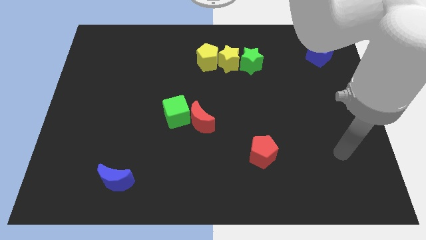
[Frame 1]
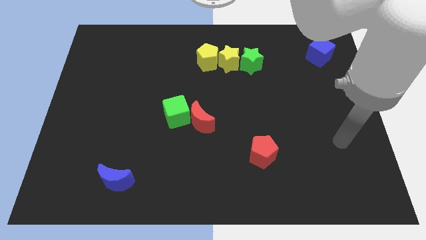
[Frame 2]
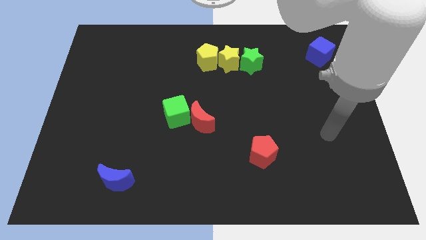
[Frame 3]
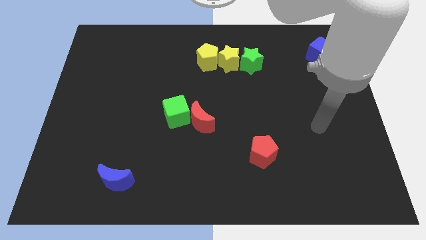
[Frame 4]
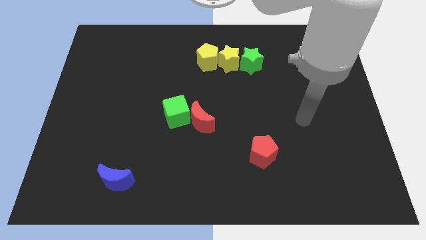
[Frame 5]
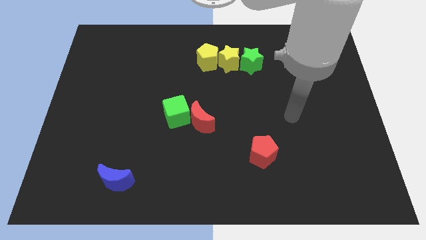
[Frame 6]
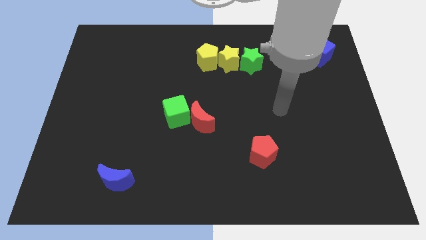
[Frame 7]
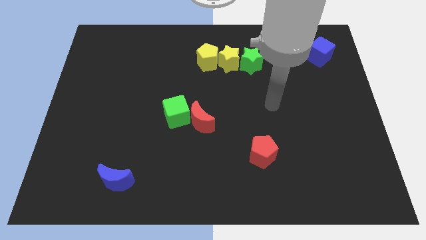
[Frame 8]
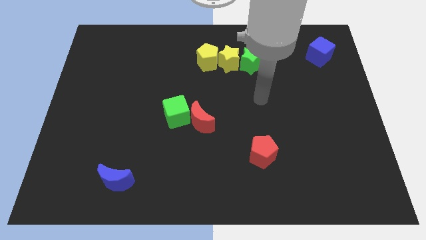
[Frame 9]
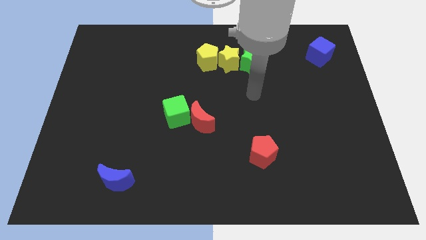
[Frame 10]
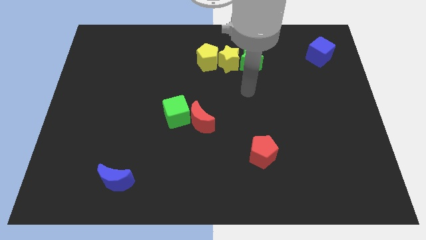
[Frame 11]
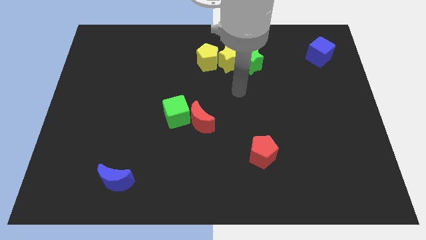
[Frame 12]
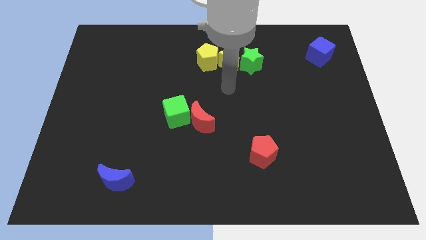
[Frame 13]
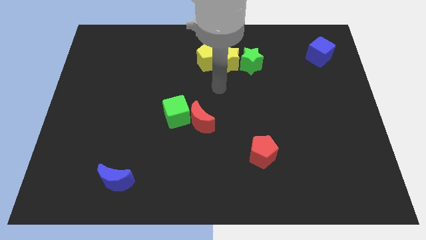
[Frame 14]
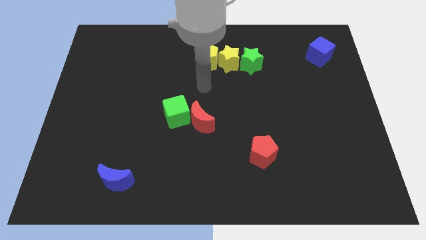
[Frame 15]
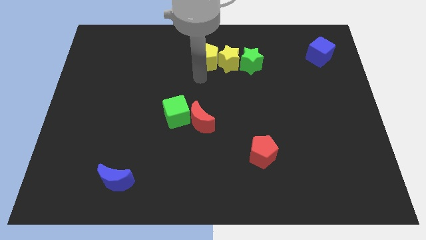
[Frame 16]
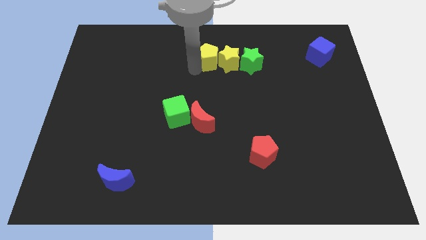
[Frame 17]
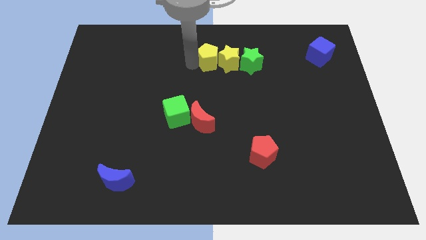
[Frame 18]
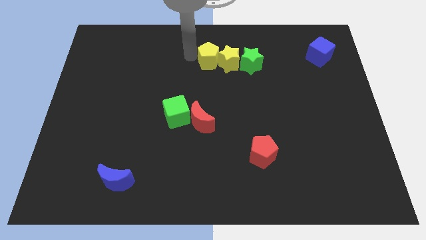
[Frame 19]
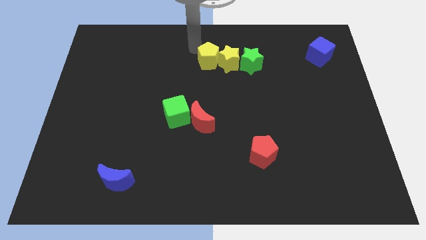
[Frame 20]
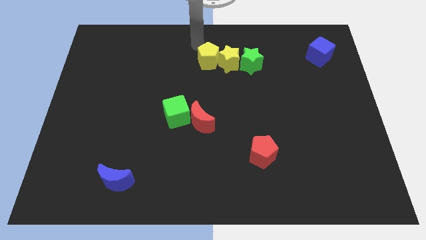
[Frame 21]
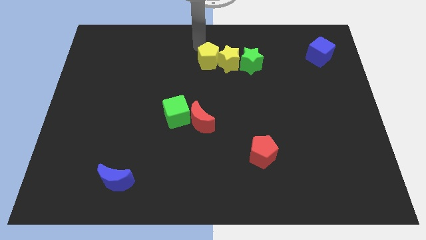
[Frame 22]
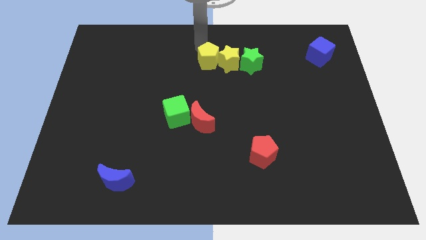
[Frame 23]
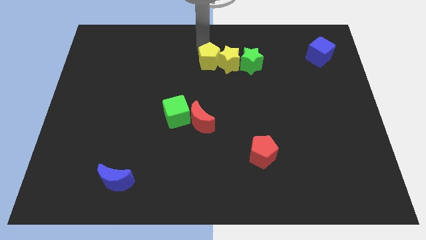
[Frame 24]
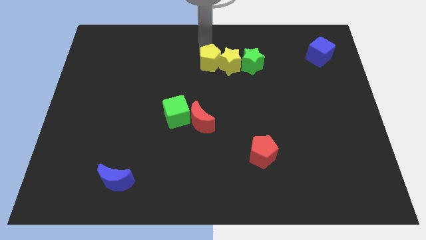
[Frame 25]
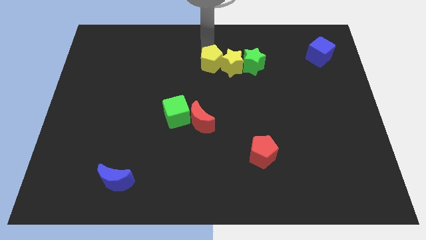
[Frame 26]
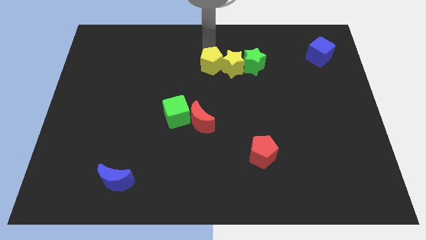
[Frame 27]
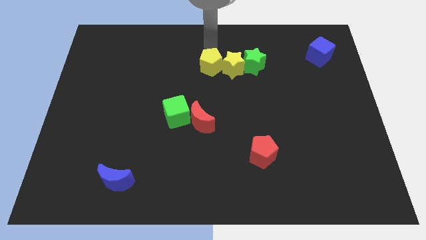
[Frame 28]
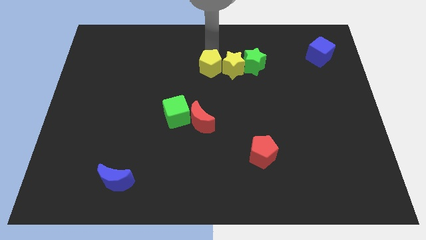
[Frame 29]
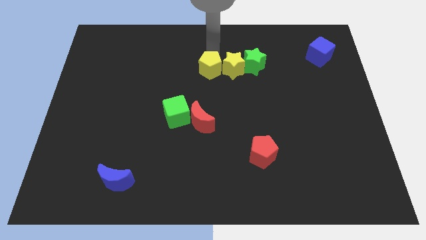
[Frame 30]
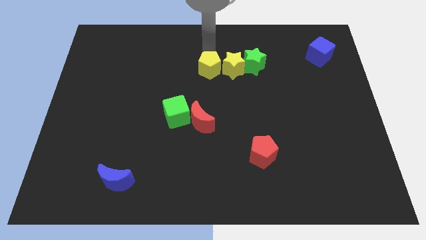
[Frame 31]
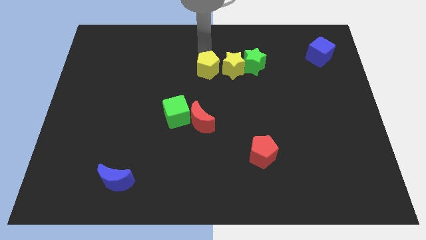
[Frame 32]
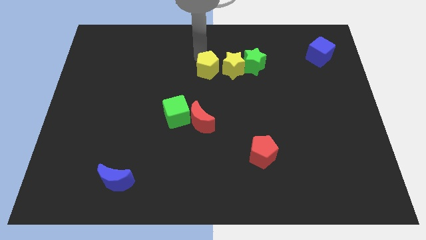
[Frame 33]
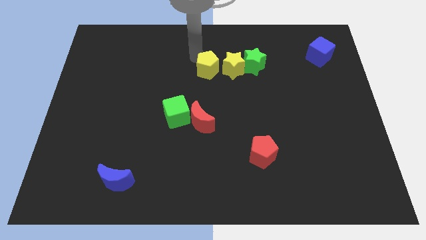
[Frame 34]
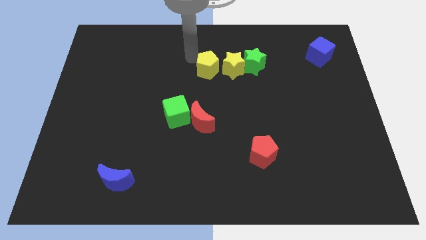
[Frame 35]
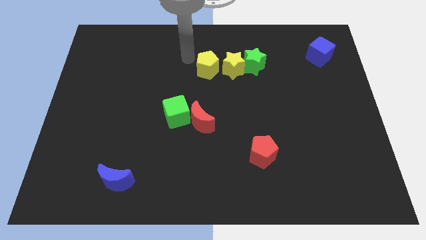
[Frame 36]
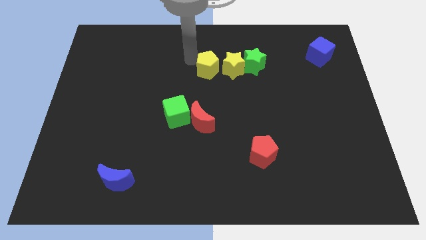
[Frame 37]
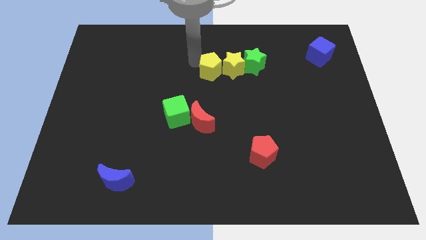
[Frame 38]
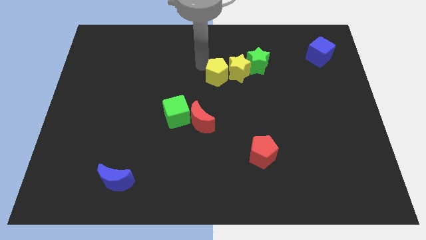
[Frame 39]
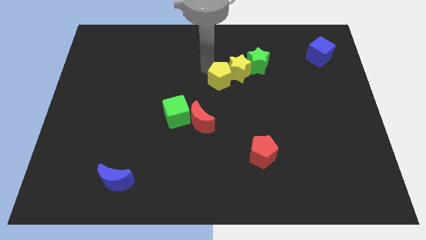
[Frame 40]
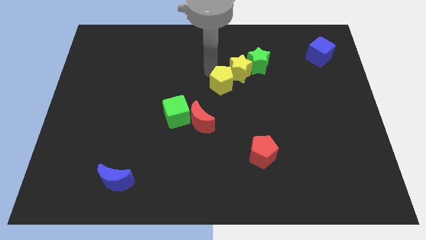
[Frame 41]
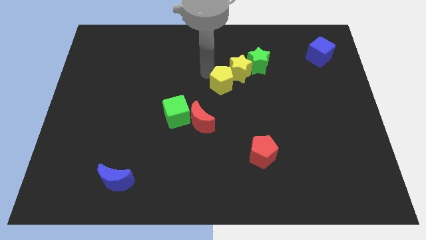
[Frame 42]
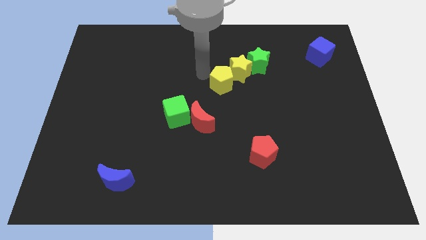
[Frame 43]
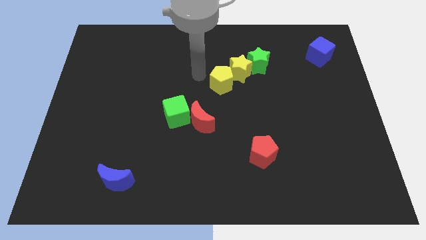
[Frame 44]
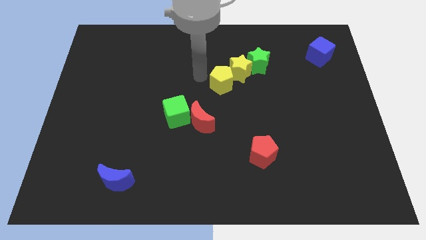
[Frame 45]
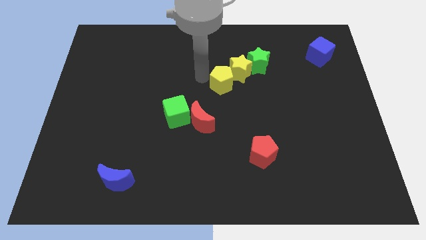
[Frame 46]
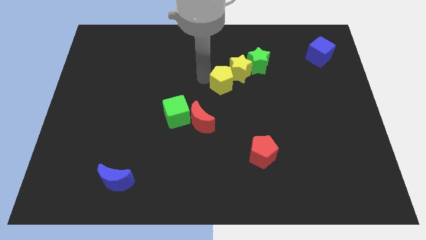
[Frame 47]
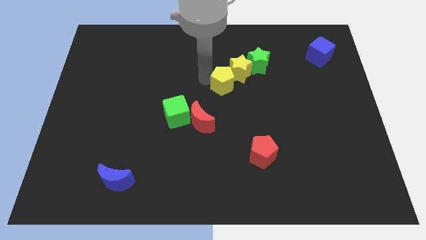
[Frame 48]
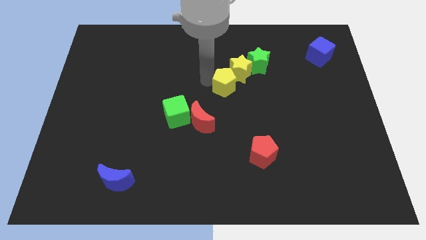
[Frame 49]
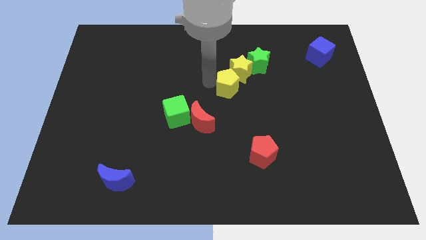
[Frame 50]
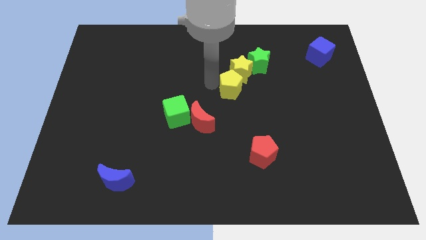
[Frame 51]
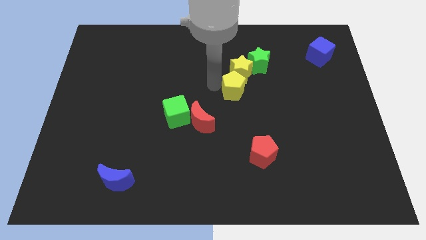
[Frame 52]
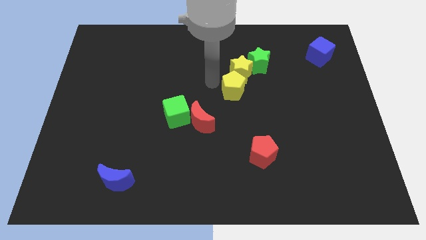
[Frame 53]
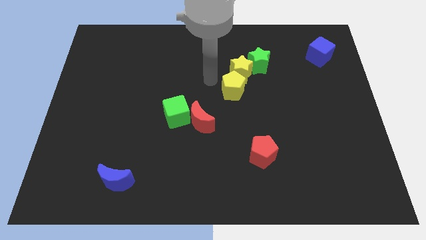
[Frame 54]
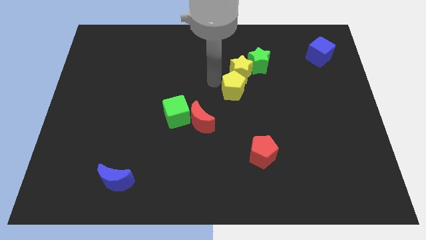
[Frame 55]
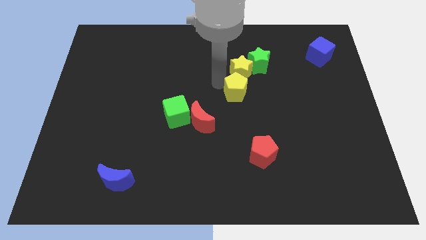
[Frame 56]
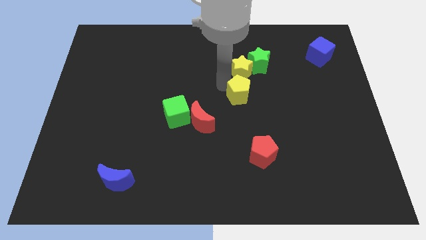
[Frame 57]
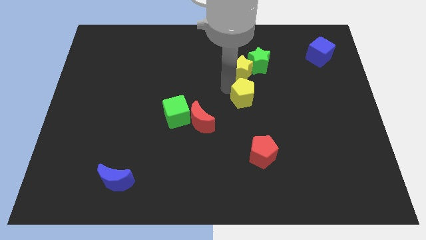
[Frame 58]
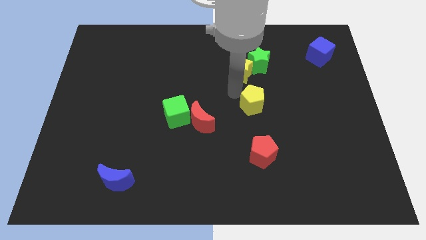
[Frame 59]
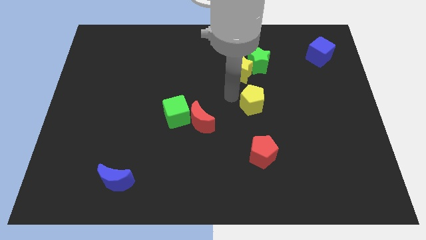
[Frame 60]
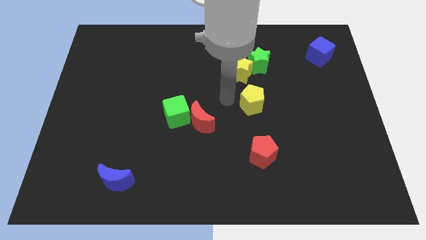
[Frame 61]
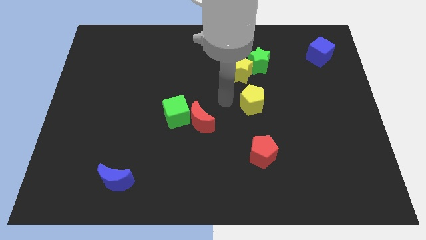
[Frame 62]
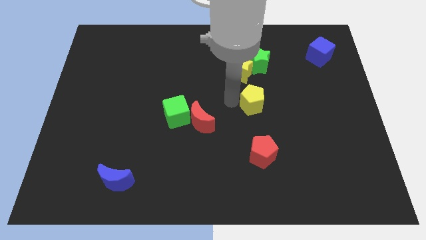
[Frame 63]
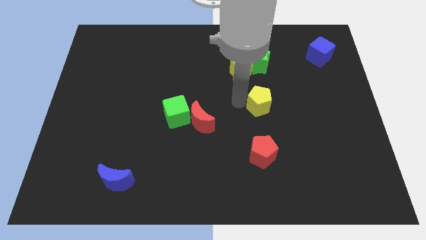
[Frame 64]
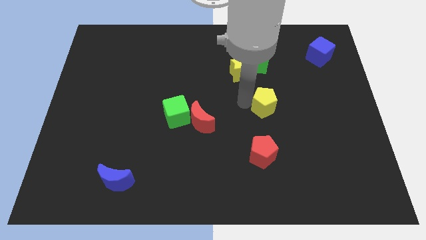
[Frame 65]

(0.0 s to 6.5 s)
move the yellow pentagon diagonally downwards and to the right

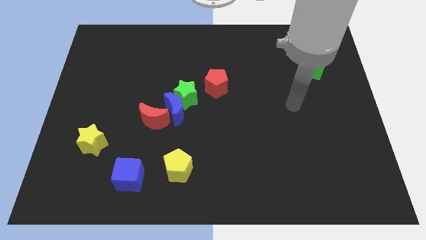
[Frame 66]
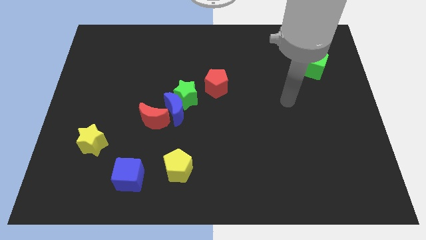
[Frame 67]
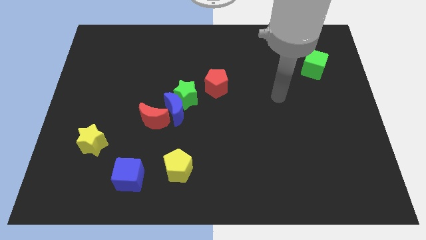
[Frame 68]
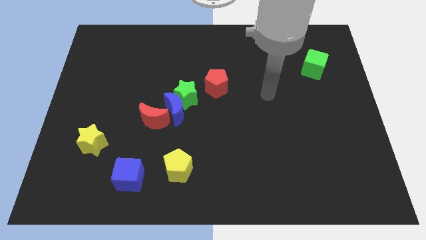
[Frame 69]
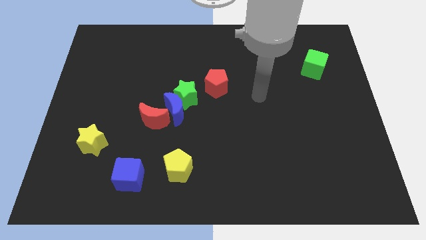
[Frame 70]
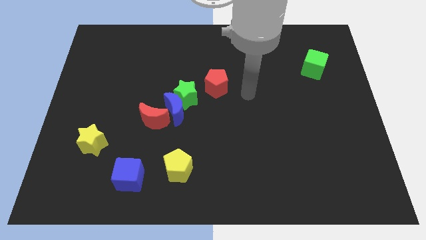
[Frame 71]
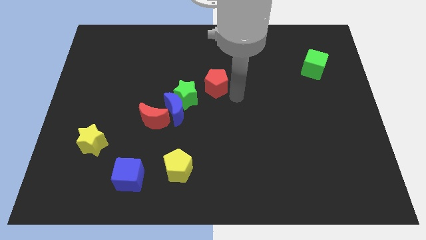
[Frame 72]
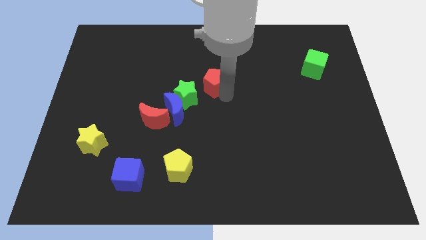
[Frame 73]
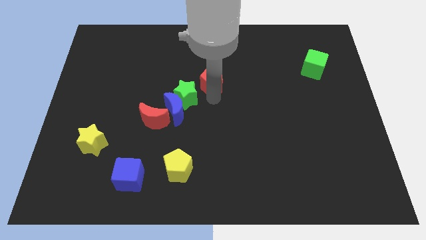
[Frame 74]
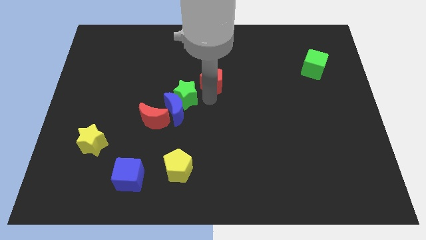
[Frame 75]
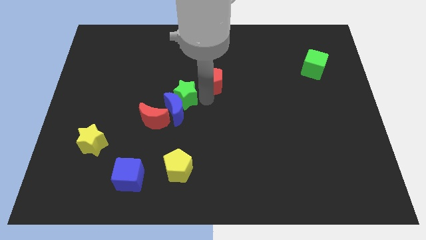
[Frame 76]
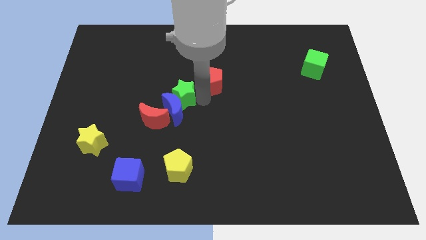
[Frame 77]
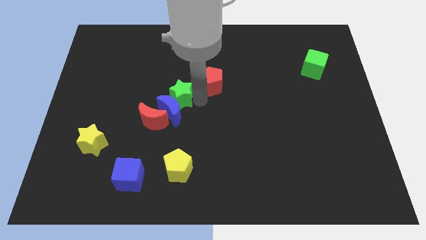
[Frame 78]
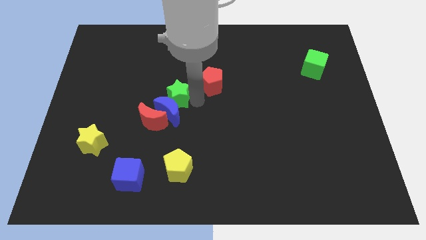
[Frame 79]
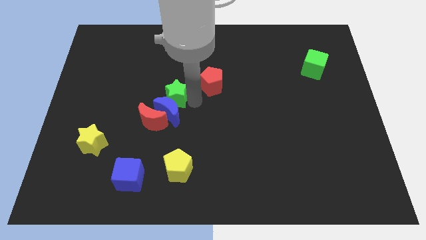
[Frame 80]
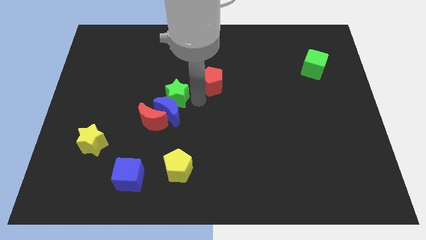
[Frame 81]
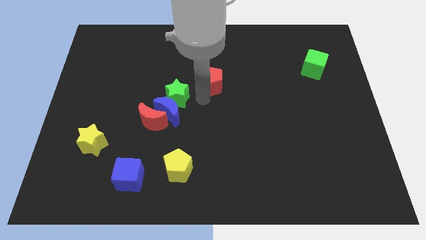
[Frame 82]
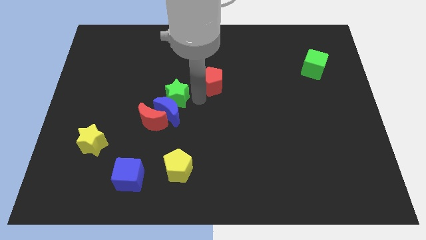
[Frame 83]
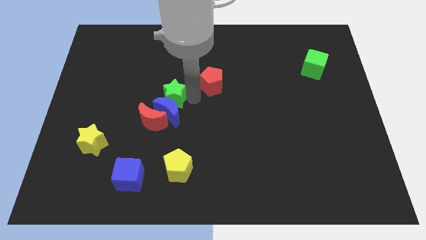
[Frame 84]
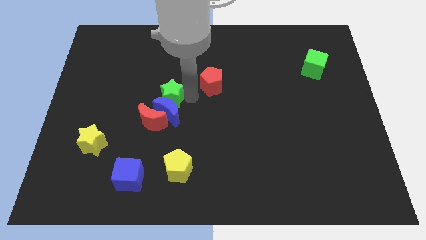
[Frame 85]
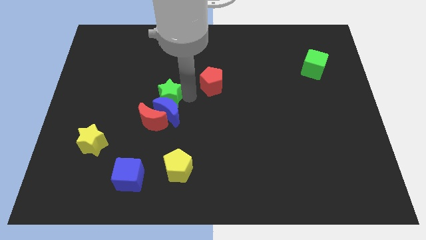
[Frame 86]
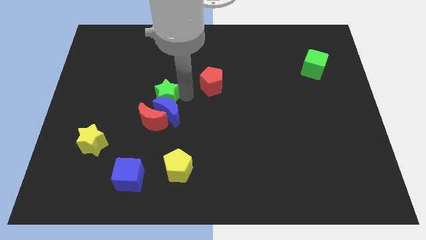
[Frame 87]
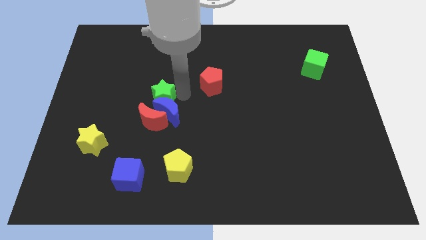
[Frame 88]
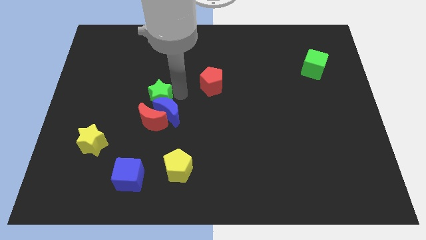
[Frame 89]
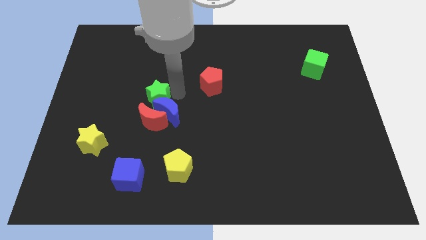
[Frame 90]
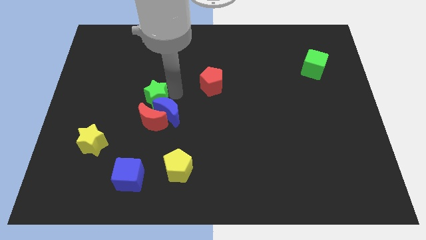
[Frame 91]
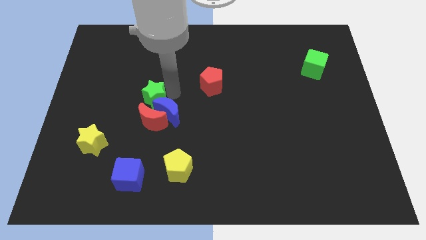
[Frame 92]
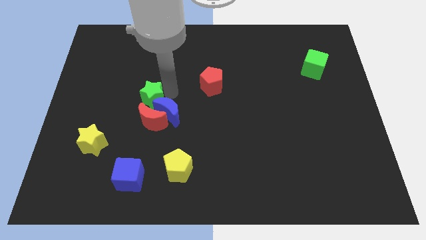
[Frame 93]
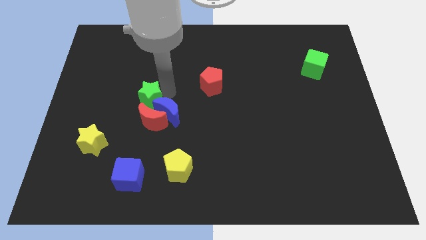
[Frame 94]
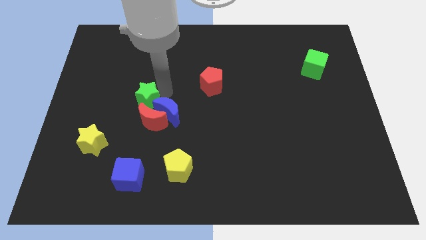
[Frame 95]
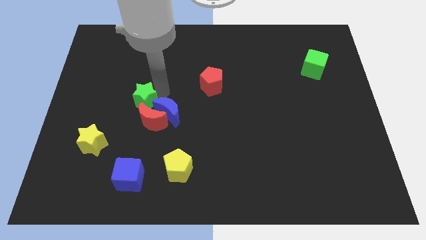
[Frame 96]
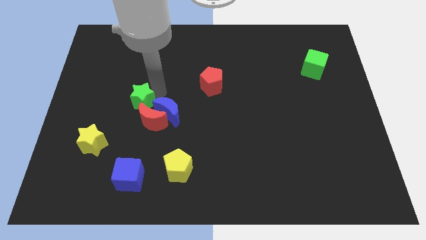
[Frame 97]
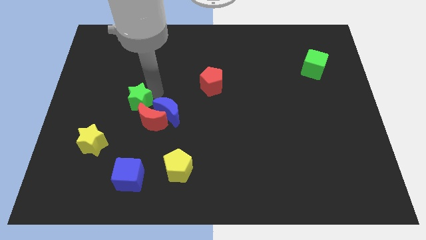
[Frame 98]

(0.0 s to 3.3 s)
slide the green star a bit diagonally down and to the left
